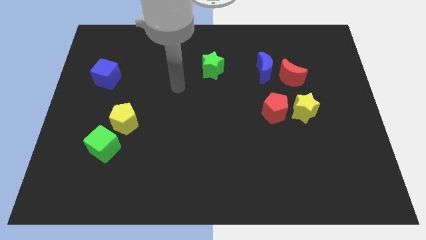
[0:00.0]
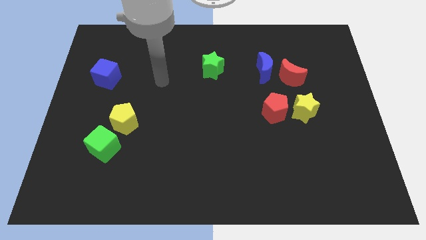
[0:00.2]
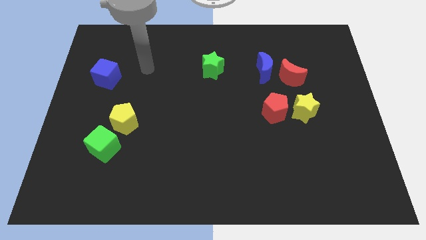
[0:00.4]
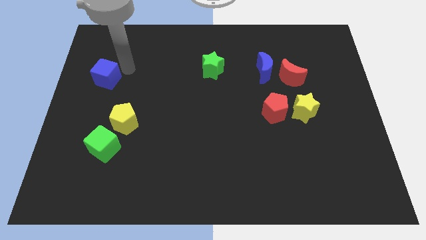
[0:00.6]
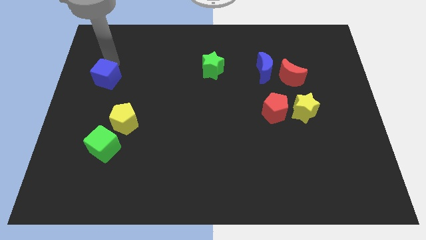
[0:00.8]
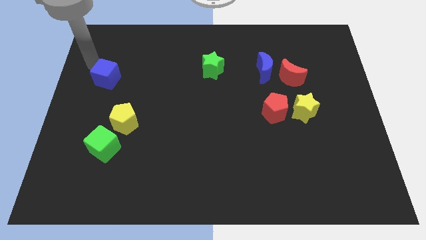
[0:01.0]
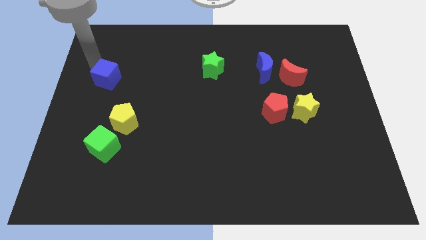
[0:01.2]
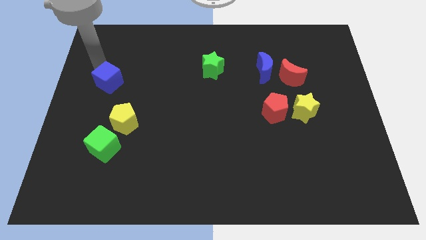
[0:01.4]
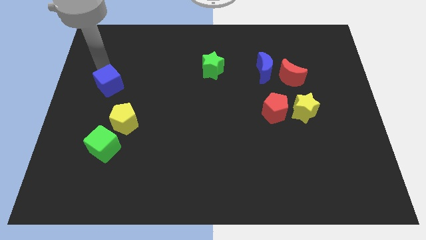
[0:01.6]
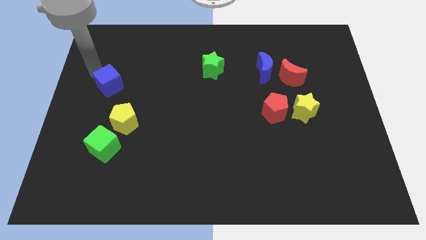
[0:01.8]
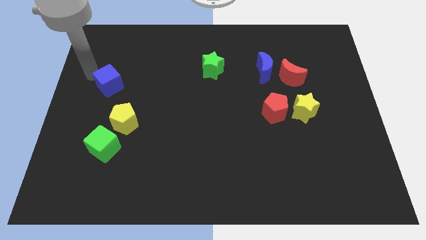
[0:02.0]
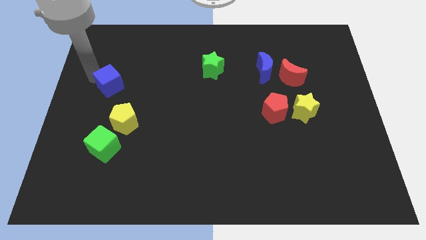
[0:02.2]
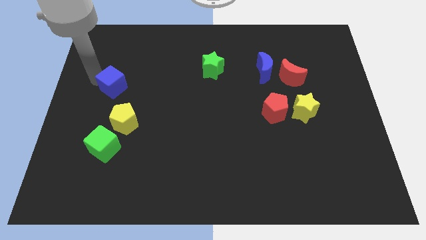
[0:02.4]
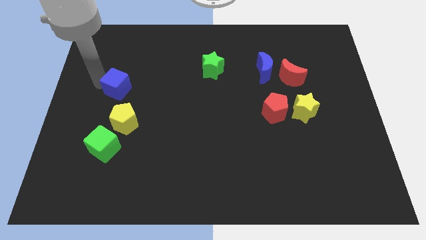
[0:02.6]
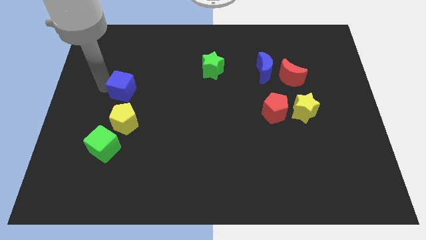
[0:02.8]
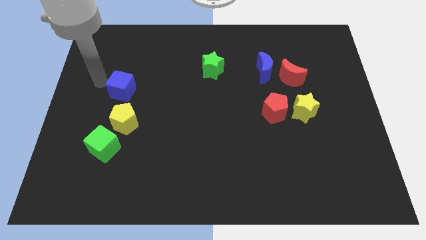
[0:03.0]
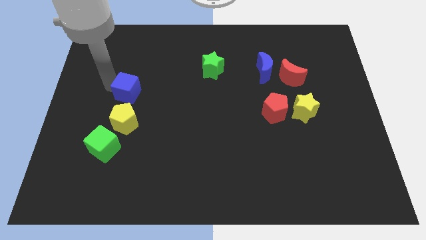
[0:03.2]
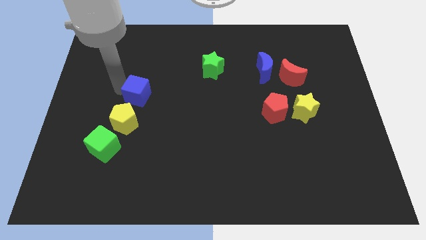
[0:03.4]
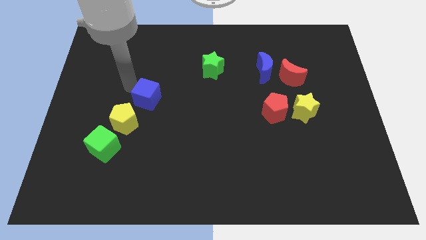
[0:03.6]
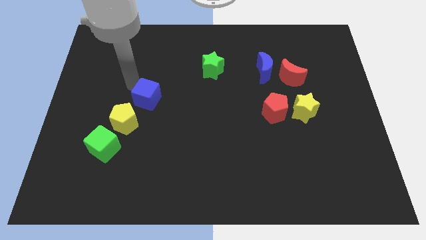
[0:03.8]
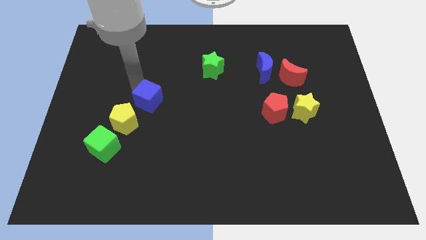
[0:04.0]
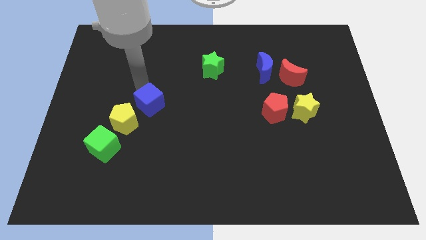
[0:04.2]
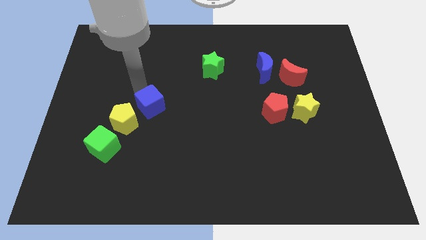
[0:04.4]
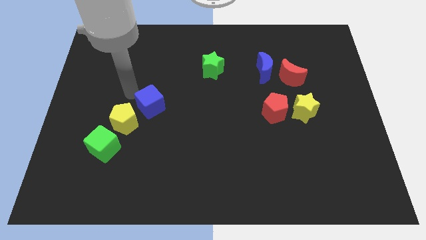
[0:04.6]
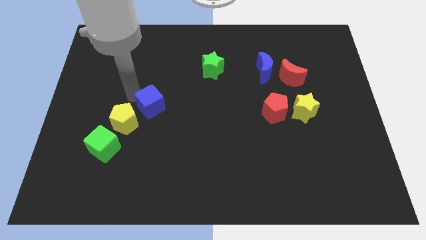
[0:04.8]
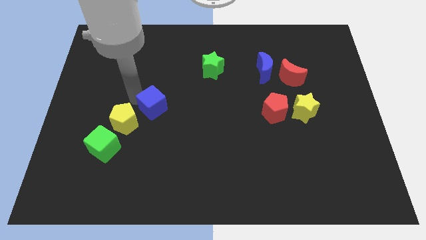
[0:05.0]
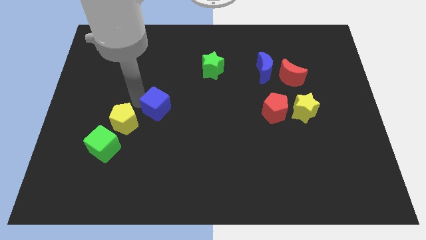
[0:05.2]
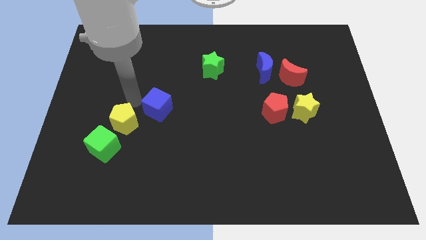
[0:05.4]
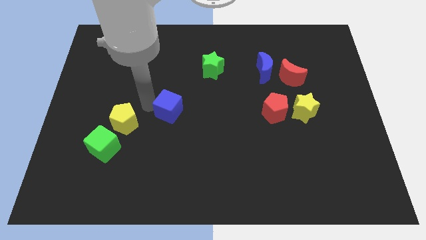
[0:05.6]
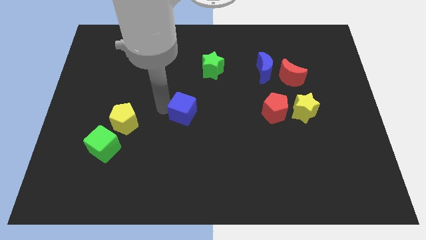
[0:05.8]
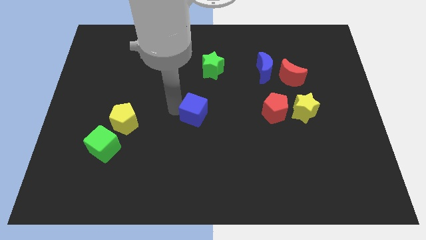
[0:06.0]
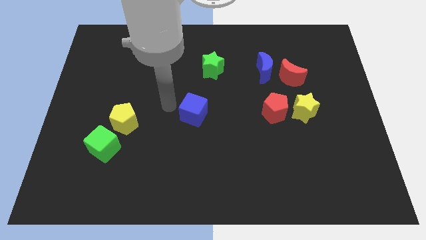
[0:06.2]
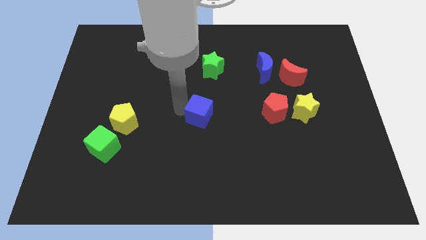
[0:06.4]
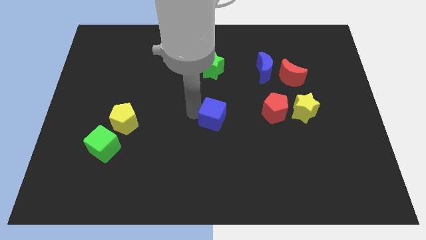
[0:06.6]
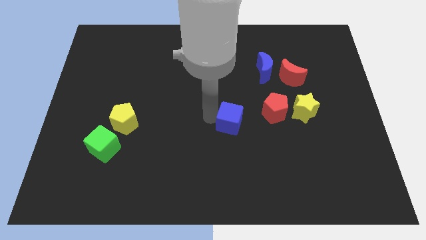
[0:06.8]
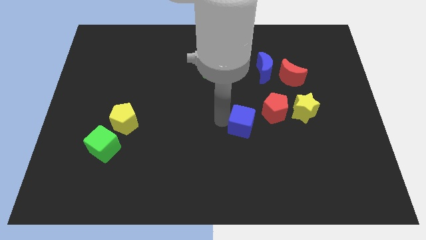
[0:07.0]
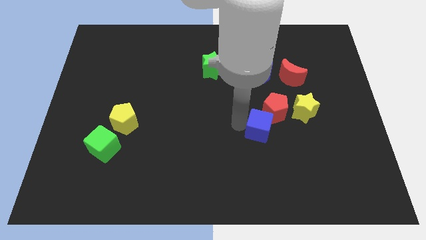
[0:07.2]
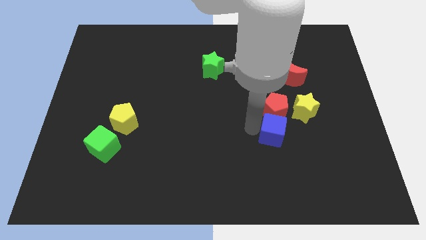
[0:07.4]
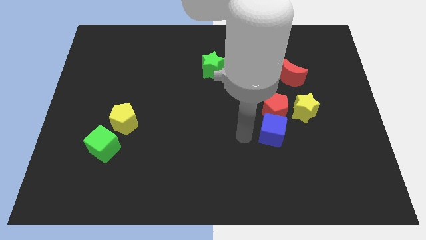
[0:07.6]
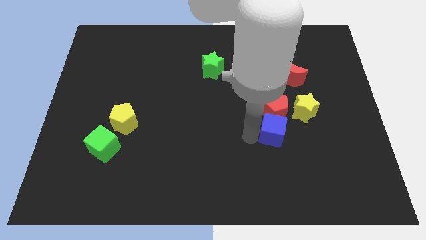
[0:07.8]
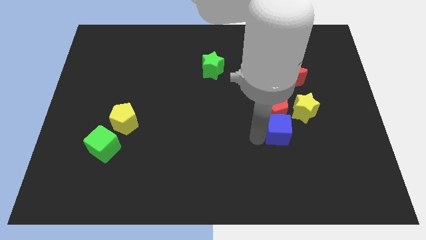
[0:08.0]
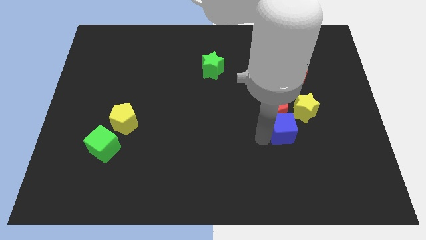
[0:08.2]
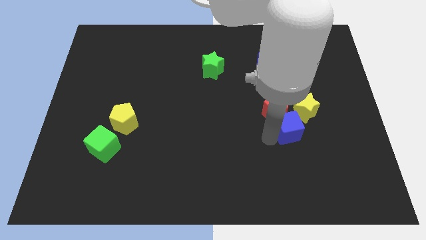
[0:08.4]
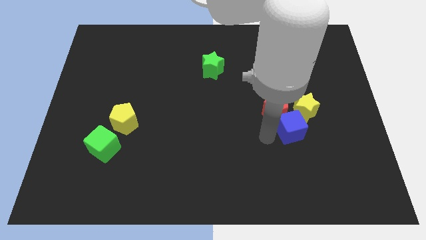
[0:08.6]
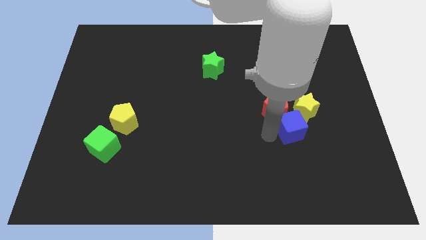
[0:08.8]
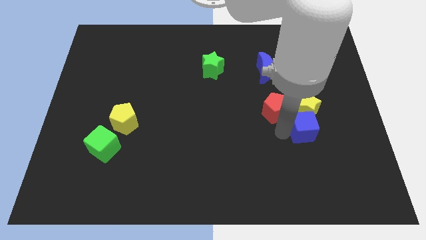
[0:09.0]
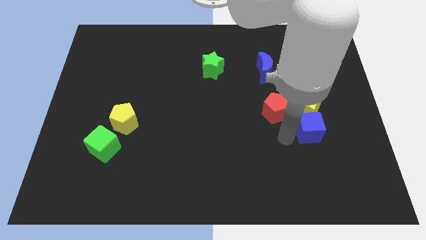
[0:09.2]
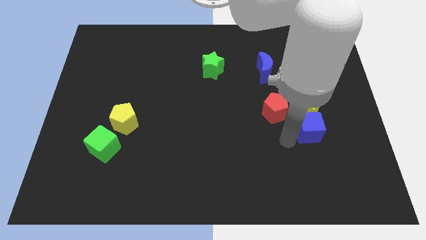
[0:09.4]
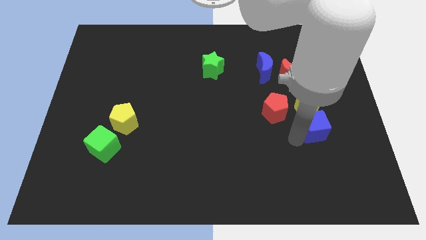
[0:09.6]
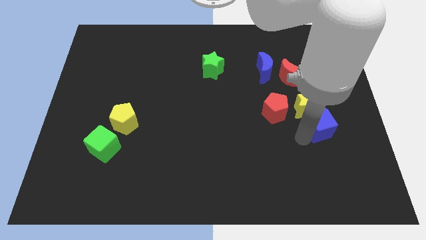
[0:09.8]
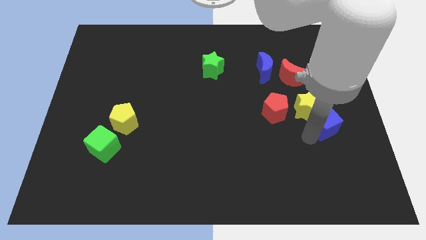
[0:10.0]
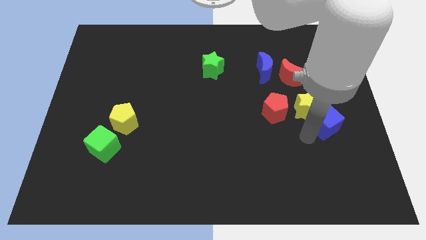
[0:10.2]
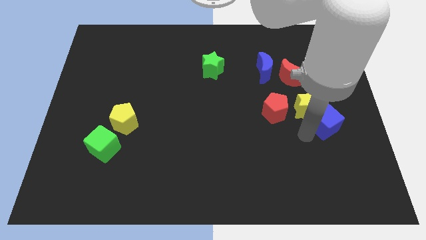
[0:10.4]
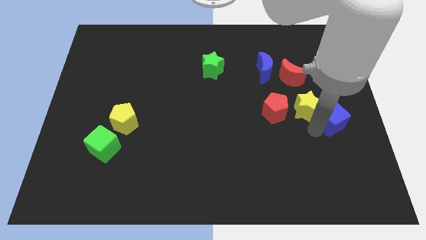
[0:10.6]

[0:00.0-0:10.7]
move the blue cube to the center right

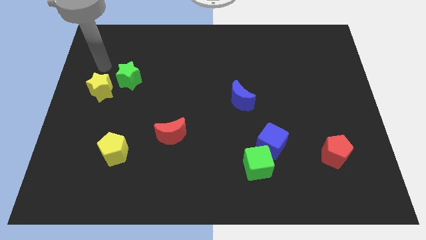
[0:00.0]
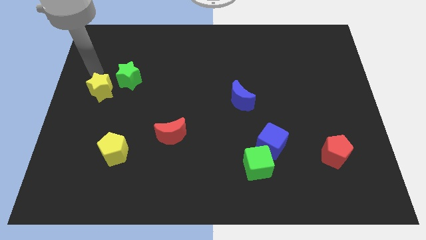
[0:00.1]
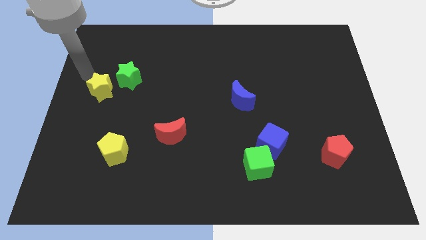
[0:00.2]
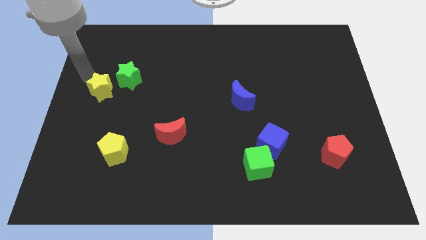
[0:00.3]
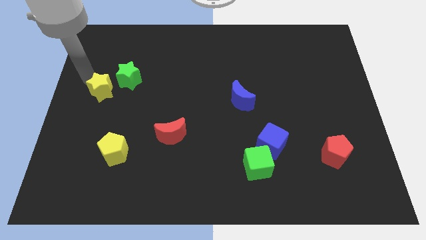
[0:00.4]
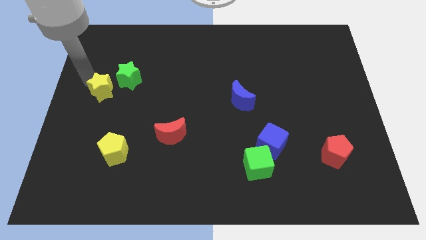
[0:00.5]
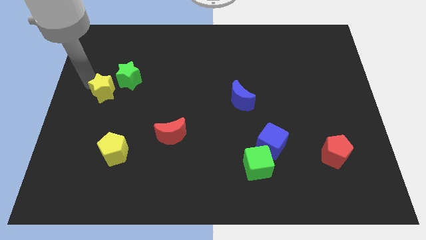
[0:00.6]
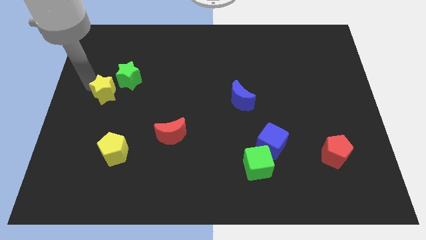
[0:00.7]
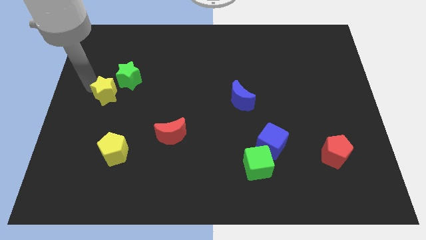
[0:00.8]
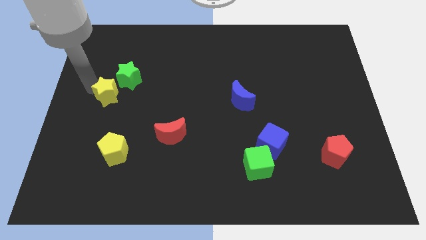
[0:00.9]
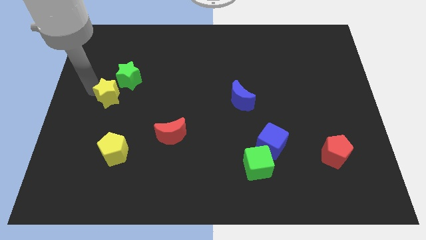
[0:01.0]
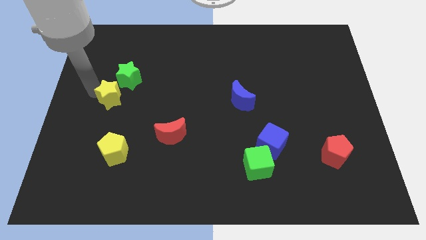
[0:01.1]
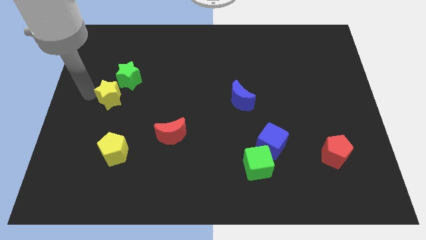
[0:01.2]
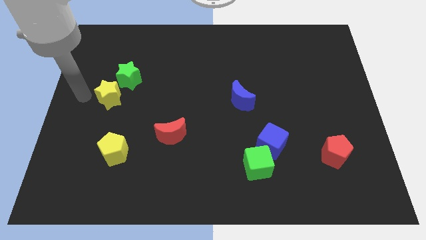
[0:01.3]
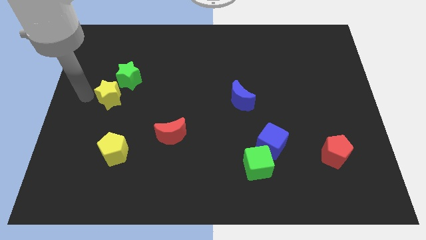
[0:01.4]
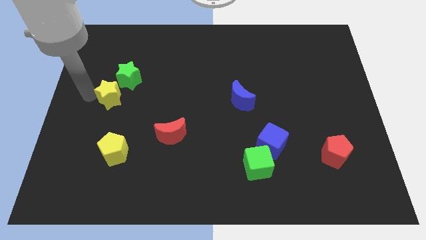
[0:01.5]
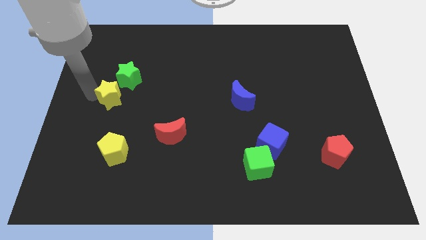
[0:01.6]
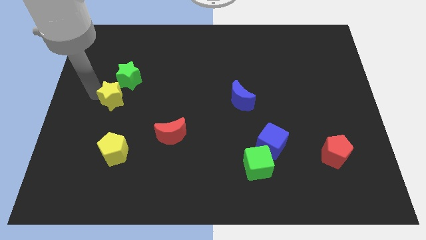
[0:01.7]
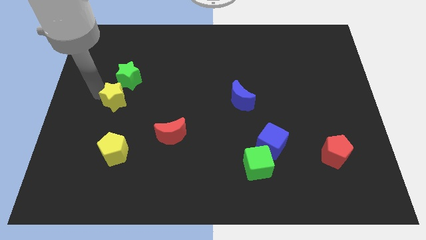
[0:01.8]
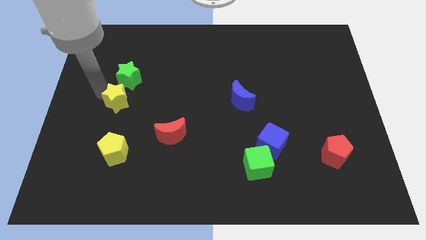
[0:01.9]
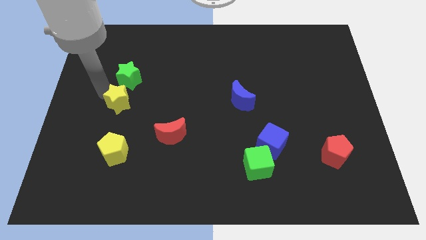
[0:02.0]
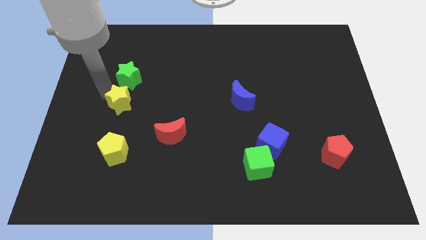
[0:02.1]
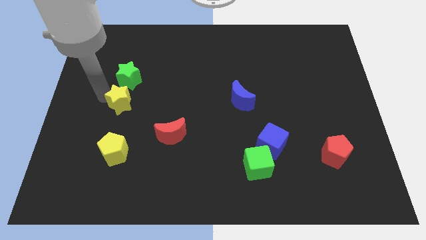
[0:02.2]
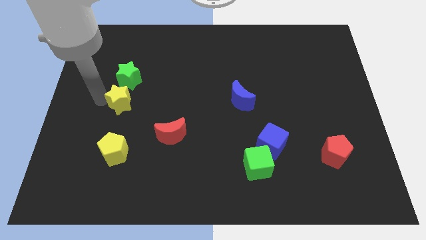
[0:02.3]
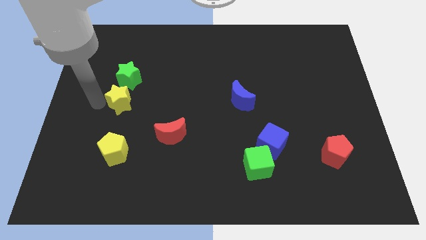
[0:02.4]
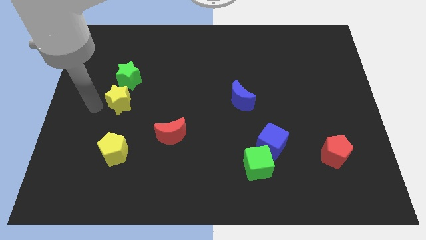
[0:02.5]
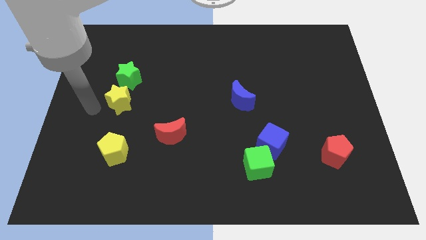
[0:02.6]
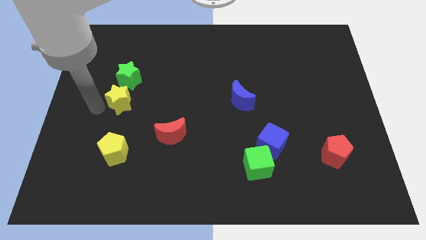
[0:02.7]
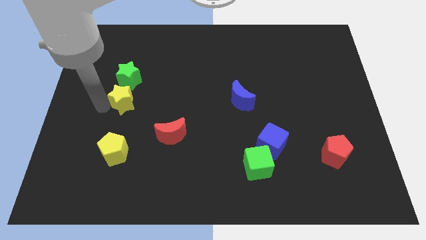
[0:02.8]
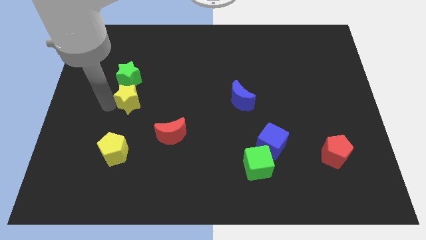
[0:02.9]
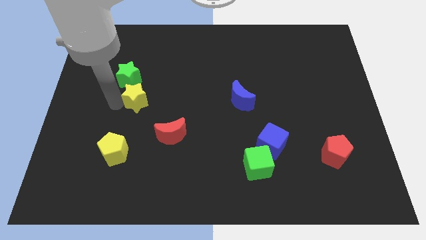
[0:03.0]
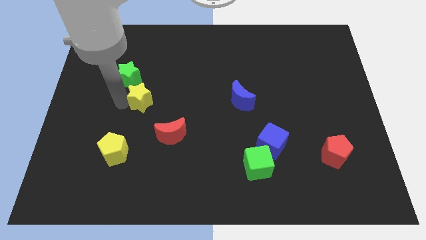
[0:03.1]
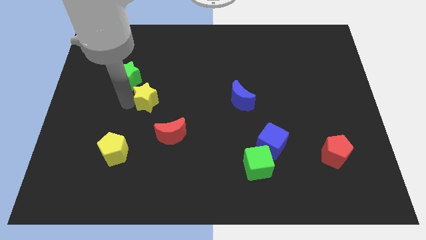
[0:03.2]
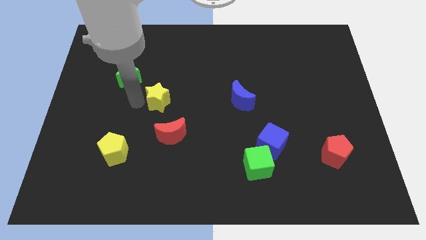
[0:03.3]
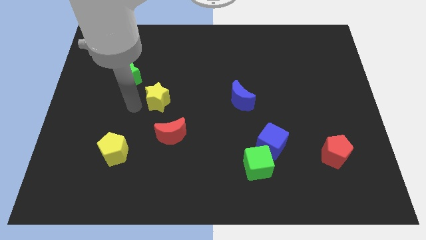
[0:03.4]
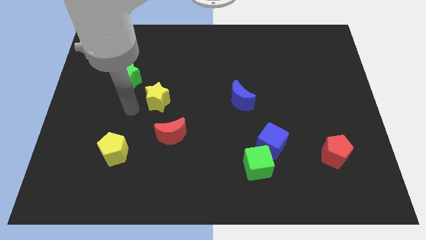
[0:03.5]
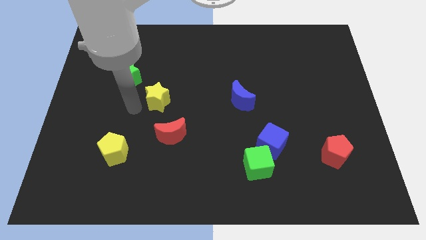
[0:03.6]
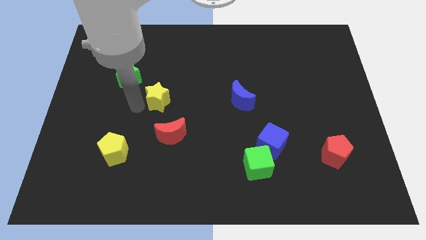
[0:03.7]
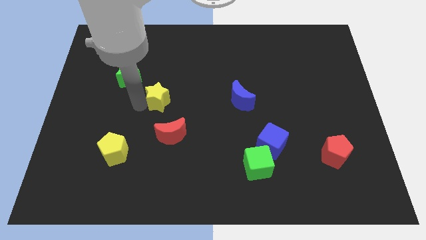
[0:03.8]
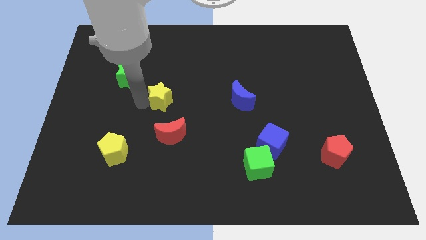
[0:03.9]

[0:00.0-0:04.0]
push the yellow star to the center of the board
